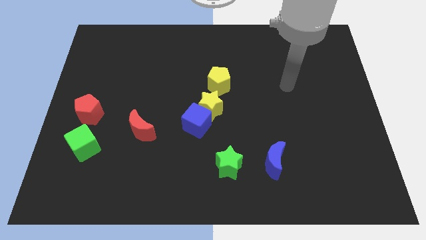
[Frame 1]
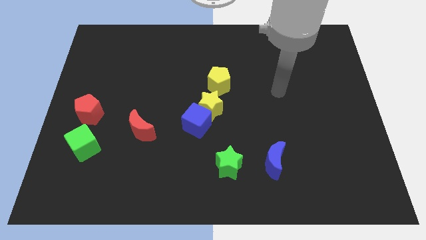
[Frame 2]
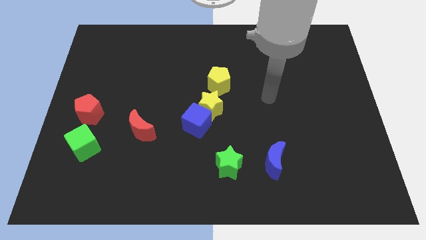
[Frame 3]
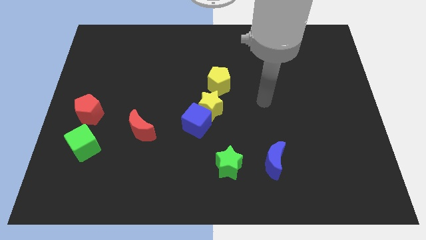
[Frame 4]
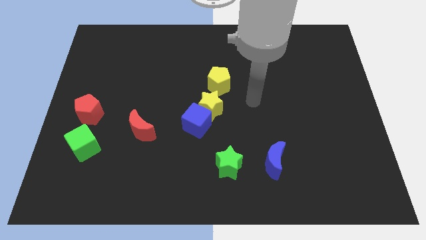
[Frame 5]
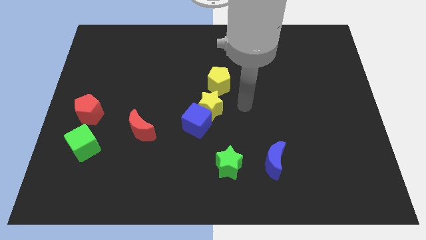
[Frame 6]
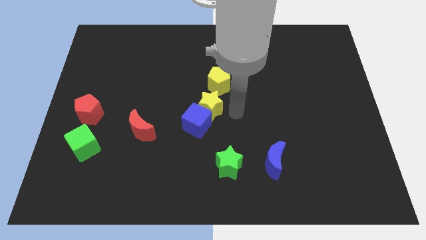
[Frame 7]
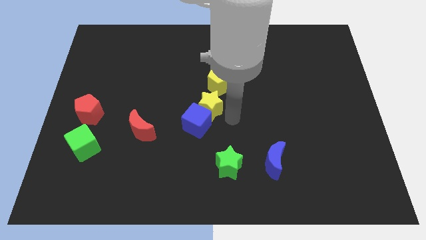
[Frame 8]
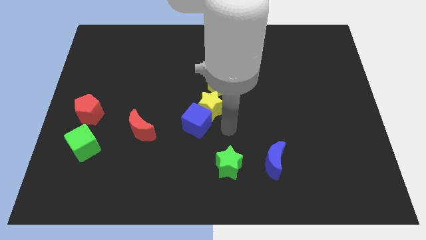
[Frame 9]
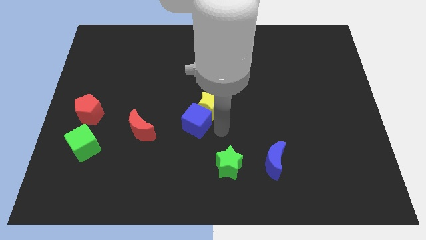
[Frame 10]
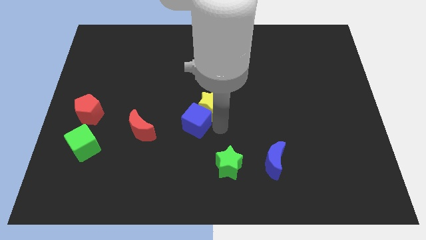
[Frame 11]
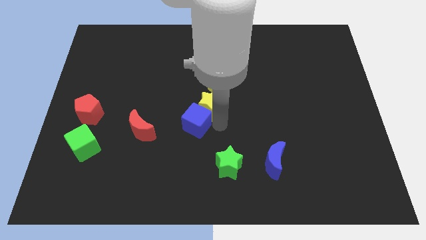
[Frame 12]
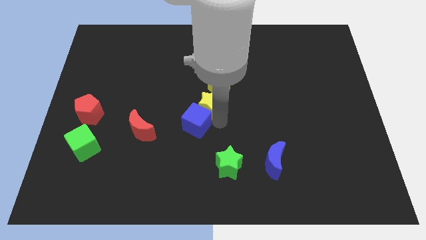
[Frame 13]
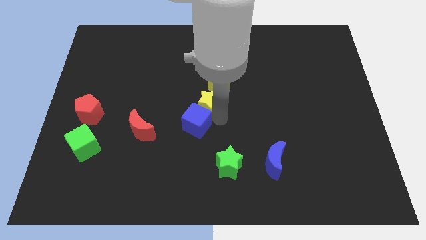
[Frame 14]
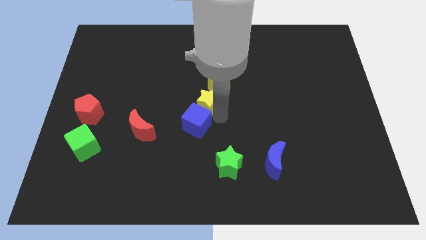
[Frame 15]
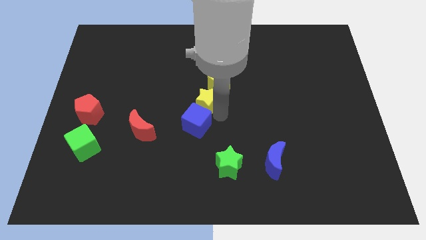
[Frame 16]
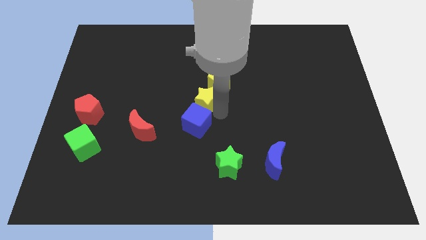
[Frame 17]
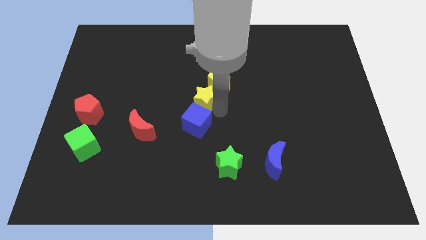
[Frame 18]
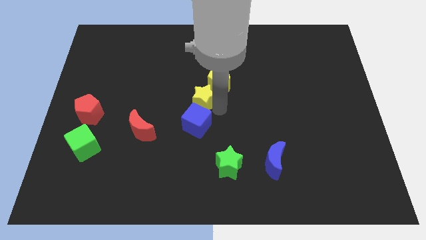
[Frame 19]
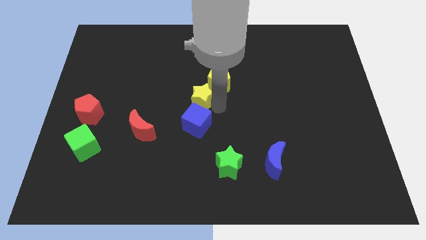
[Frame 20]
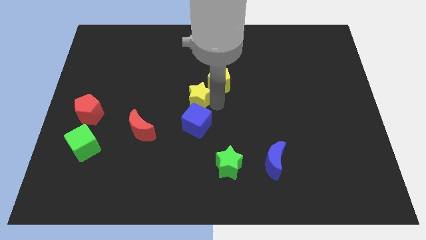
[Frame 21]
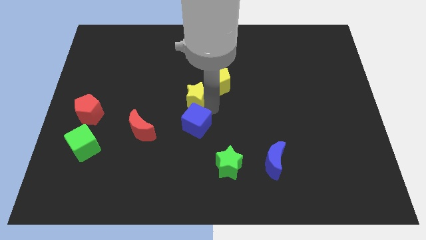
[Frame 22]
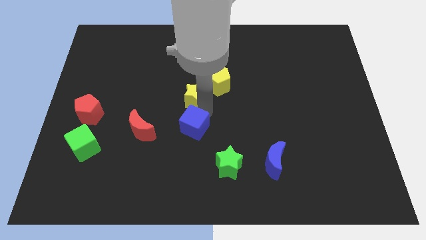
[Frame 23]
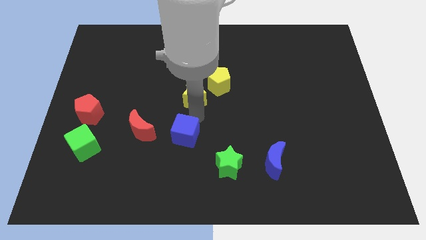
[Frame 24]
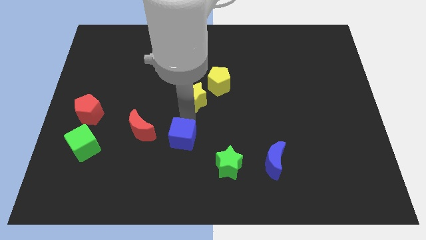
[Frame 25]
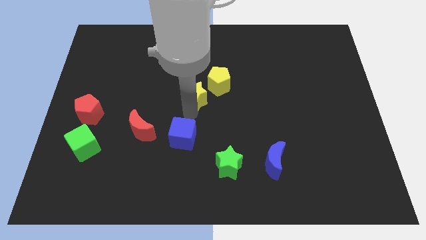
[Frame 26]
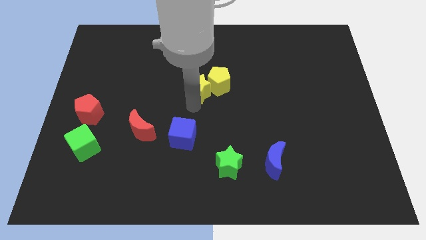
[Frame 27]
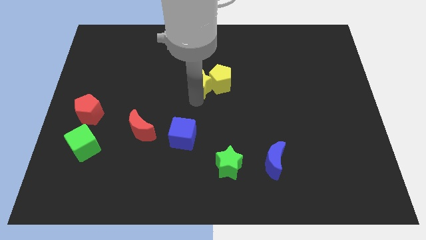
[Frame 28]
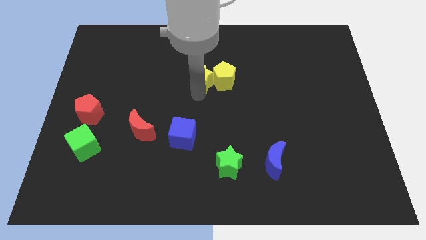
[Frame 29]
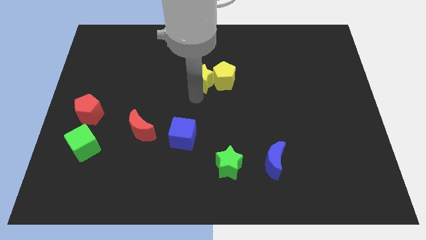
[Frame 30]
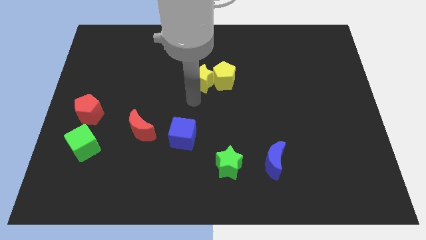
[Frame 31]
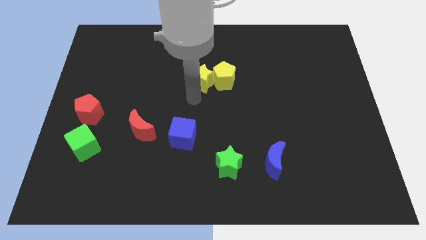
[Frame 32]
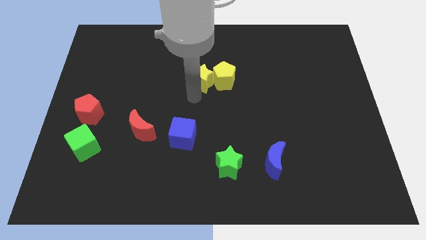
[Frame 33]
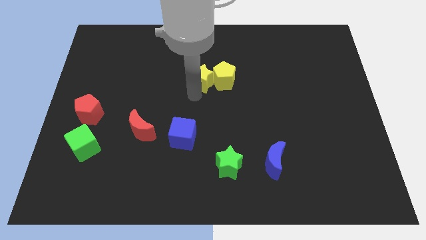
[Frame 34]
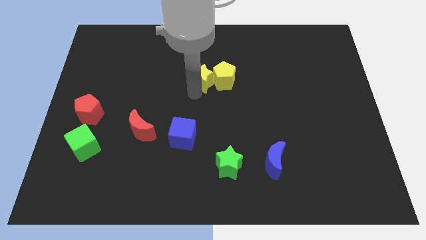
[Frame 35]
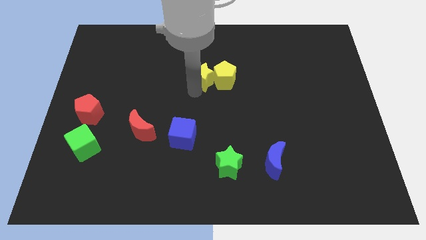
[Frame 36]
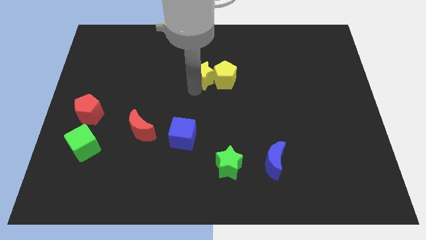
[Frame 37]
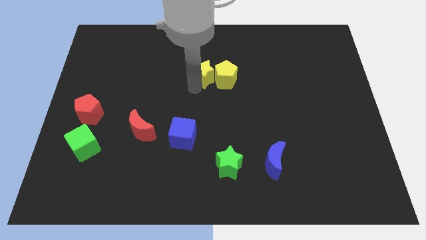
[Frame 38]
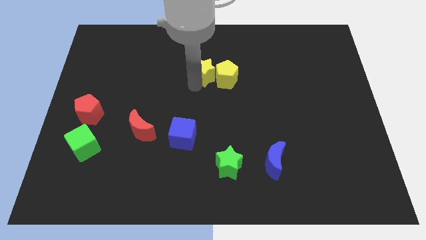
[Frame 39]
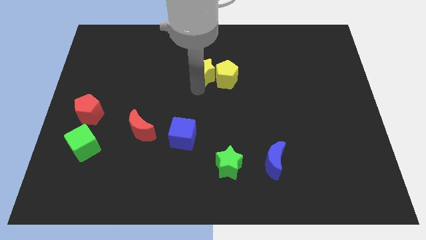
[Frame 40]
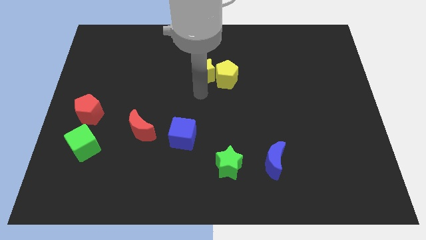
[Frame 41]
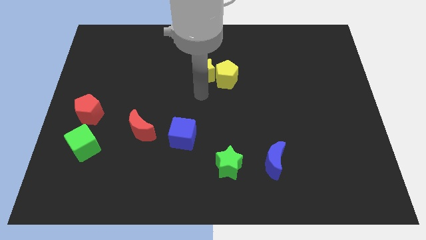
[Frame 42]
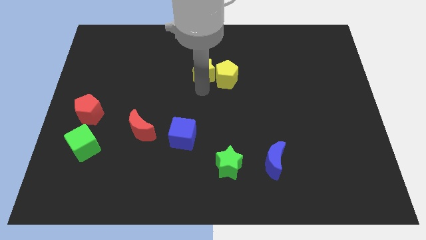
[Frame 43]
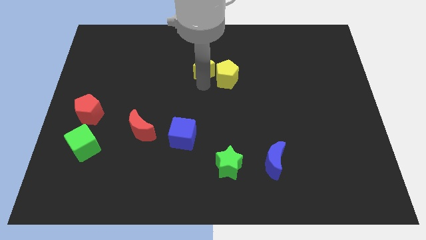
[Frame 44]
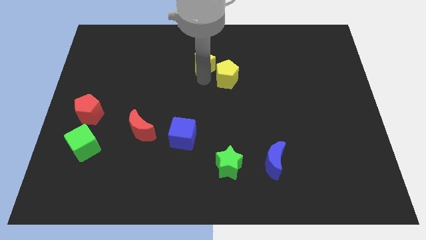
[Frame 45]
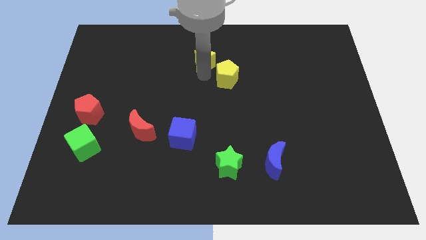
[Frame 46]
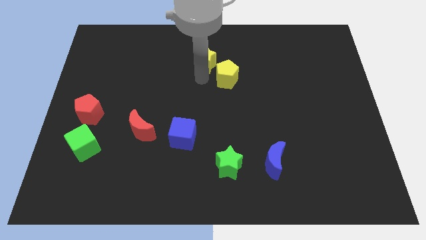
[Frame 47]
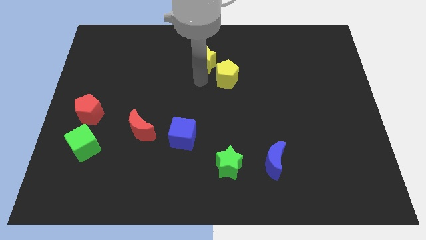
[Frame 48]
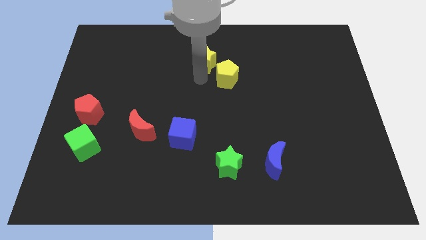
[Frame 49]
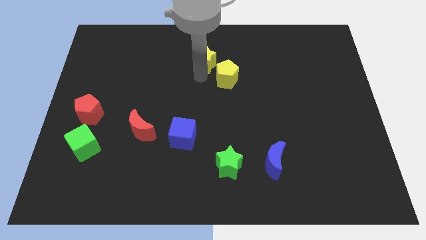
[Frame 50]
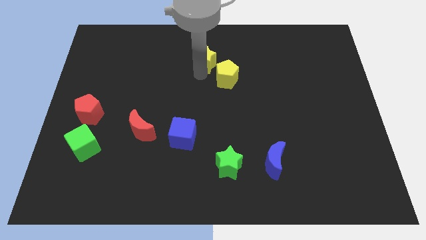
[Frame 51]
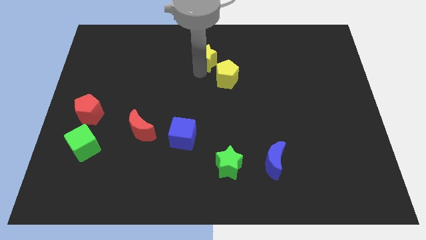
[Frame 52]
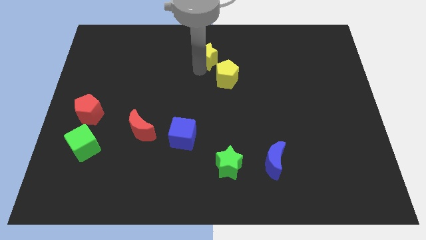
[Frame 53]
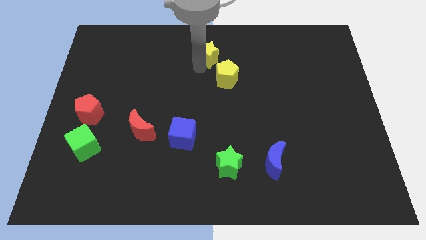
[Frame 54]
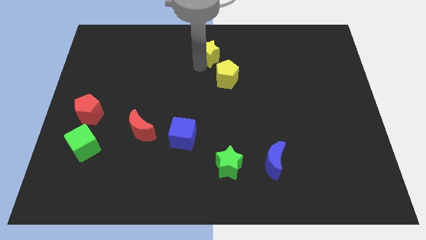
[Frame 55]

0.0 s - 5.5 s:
move the yellow star to the top side
